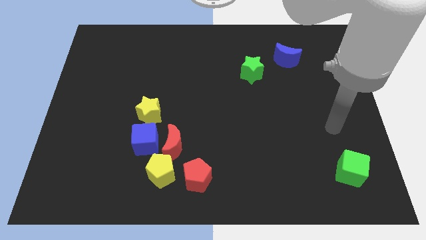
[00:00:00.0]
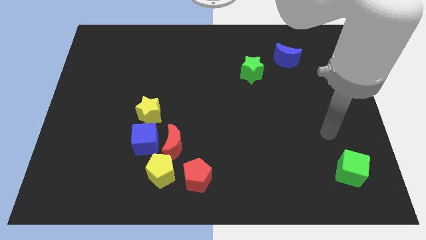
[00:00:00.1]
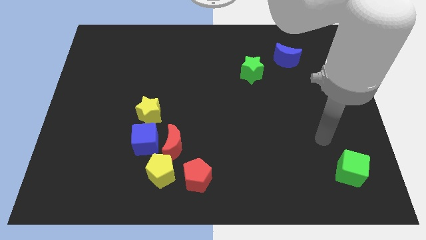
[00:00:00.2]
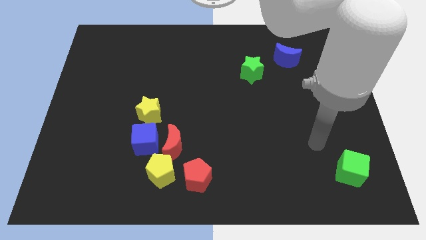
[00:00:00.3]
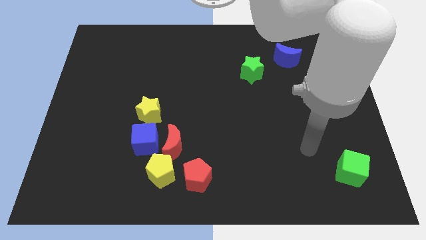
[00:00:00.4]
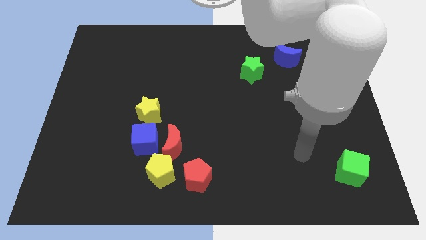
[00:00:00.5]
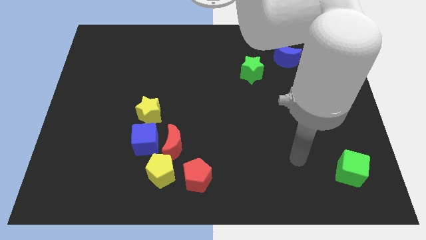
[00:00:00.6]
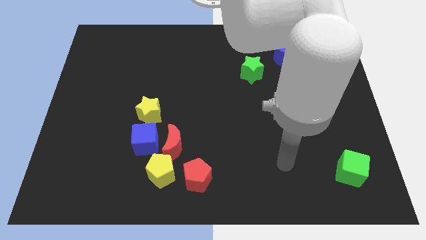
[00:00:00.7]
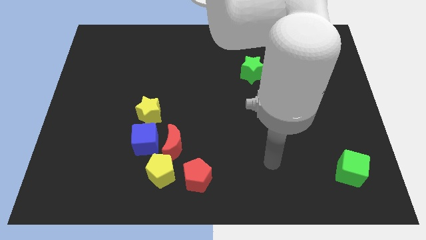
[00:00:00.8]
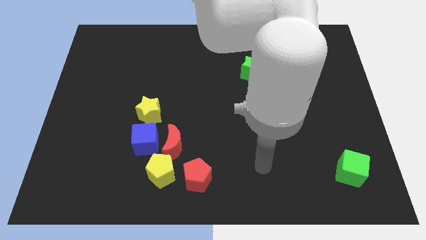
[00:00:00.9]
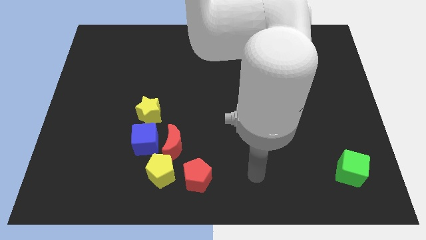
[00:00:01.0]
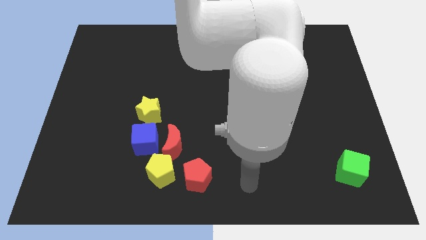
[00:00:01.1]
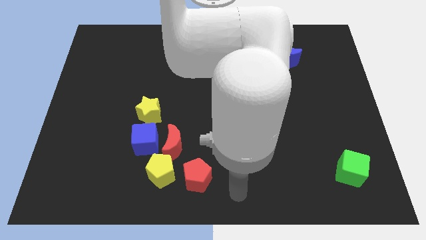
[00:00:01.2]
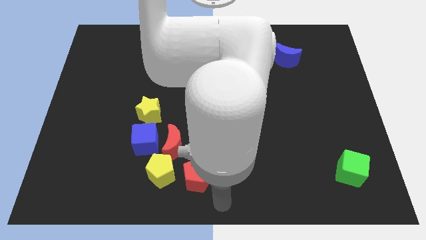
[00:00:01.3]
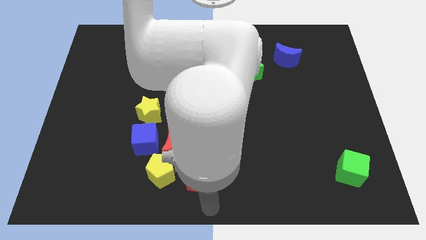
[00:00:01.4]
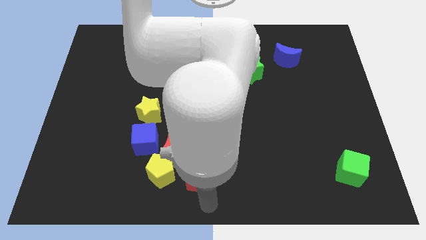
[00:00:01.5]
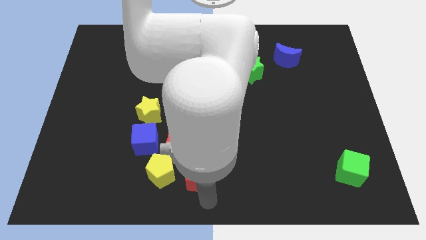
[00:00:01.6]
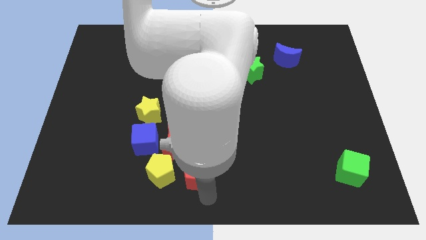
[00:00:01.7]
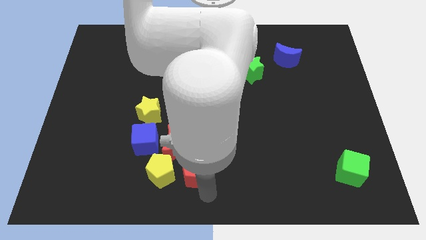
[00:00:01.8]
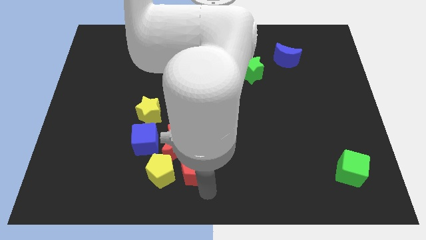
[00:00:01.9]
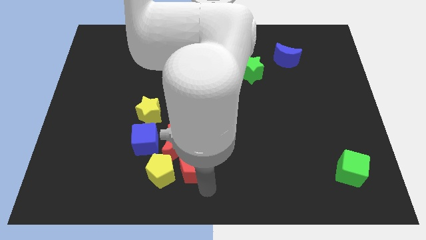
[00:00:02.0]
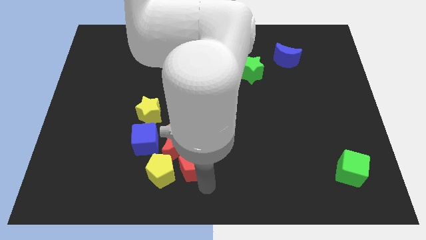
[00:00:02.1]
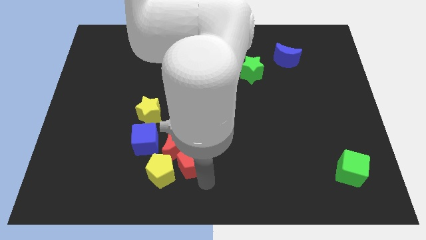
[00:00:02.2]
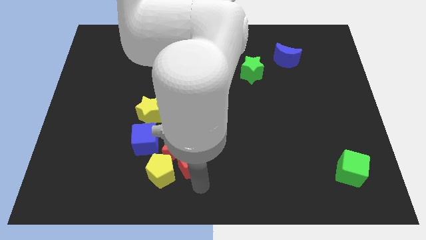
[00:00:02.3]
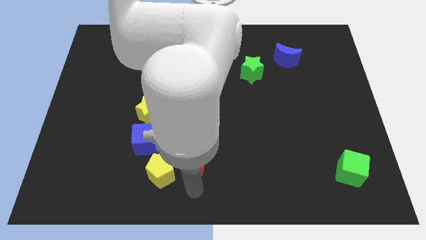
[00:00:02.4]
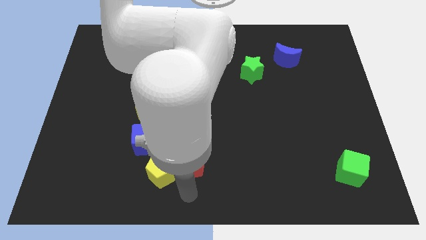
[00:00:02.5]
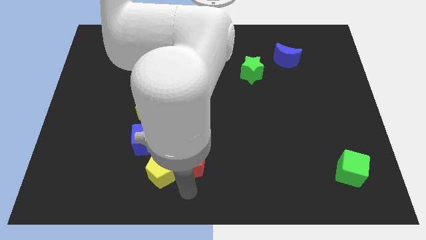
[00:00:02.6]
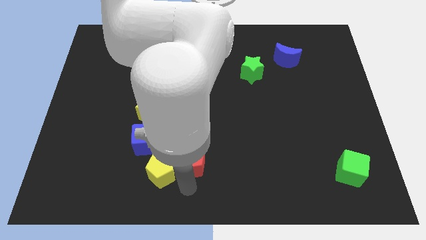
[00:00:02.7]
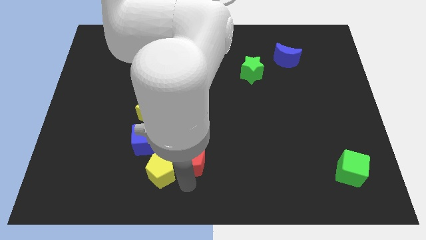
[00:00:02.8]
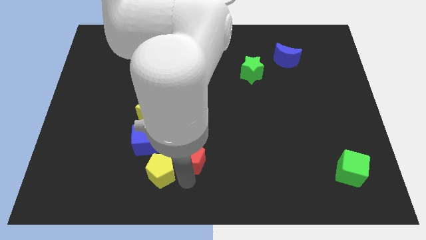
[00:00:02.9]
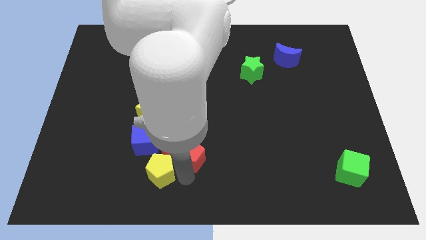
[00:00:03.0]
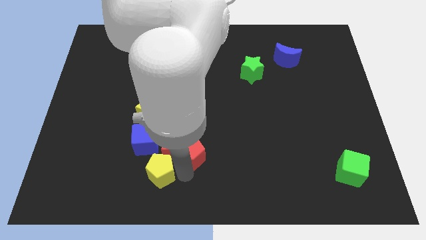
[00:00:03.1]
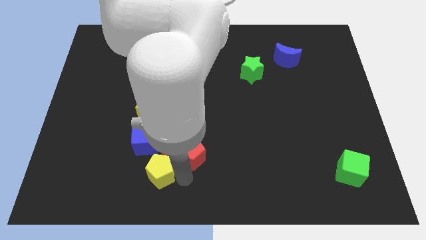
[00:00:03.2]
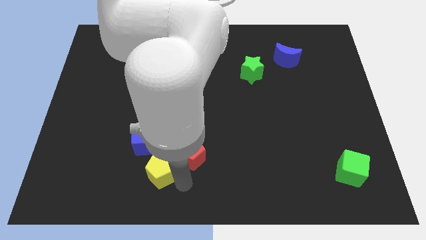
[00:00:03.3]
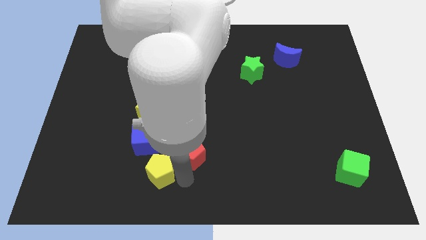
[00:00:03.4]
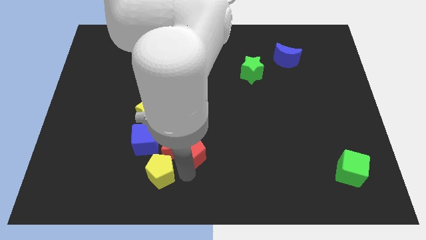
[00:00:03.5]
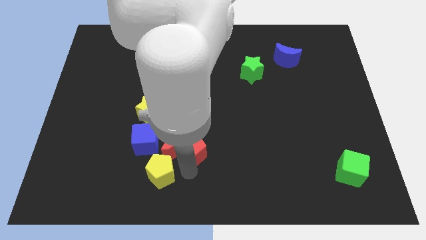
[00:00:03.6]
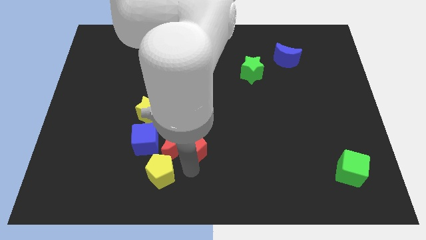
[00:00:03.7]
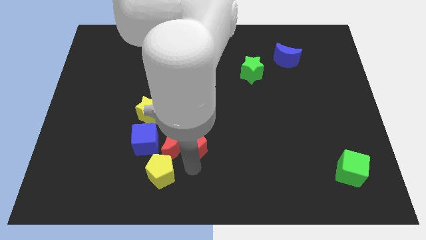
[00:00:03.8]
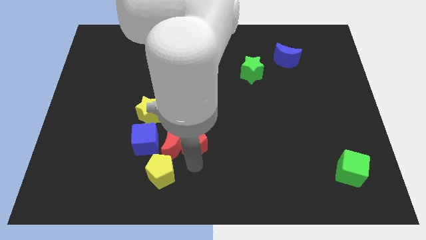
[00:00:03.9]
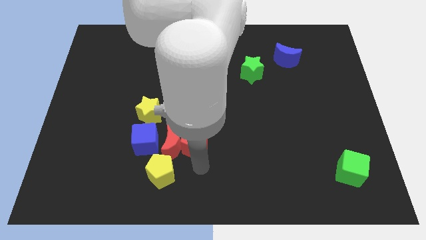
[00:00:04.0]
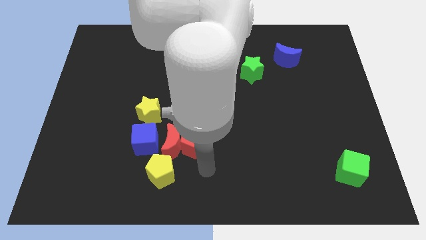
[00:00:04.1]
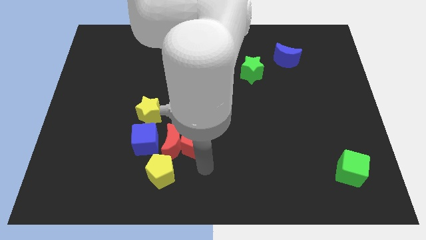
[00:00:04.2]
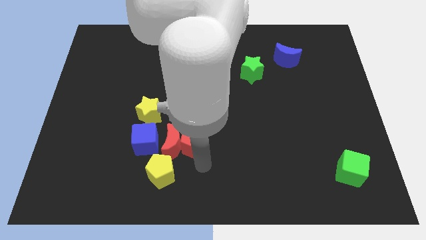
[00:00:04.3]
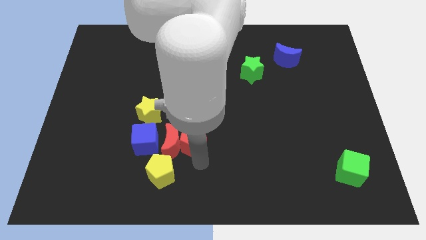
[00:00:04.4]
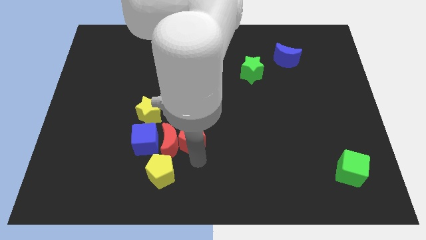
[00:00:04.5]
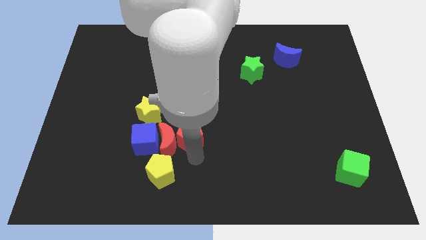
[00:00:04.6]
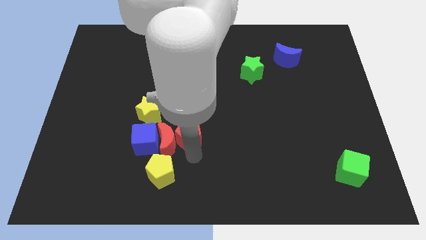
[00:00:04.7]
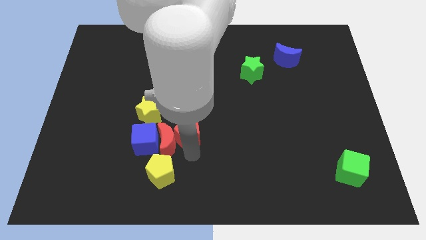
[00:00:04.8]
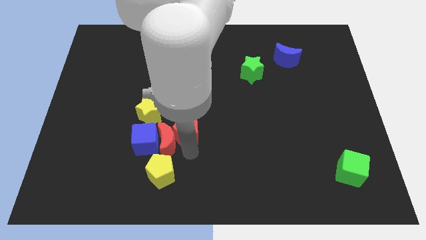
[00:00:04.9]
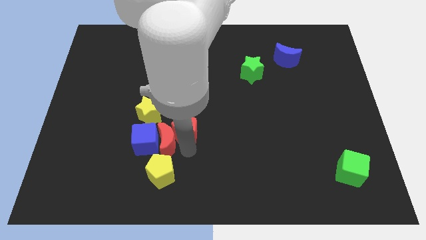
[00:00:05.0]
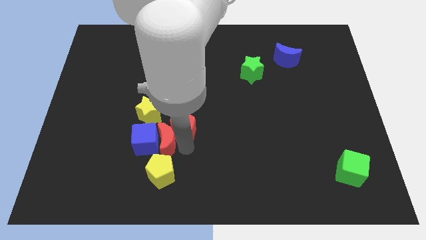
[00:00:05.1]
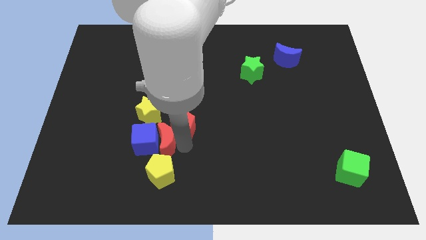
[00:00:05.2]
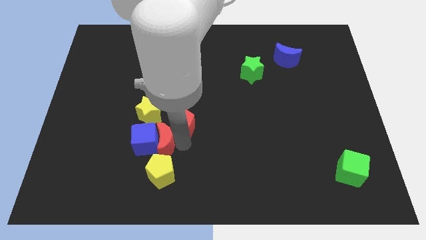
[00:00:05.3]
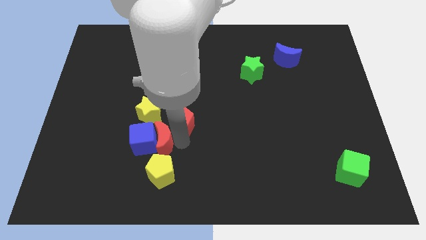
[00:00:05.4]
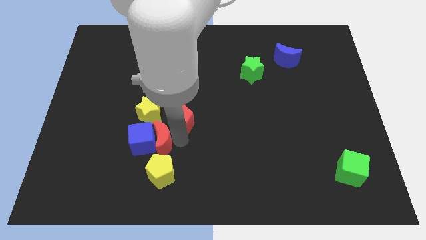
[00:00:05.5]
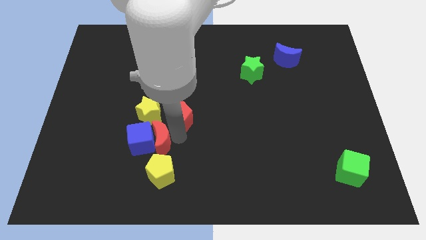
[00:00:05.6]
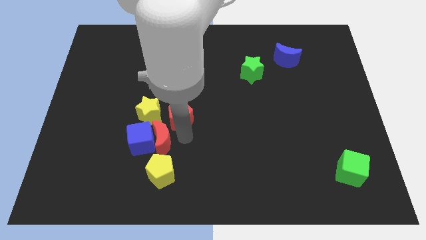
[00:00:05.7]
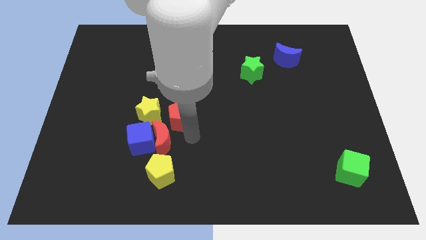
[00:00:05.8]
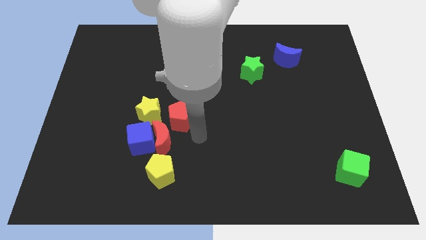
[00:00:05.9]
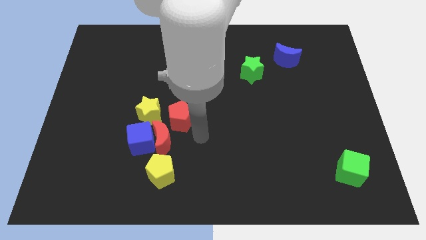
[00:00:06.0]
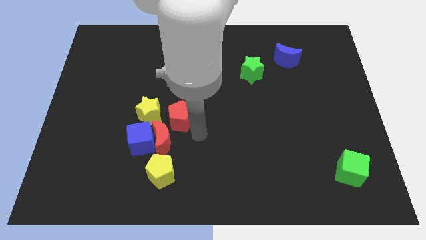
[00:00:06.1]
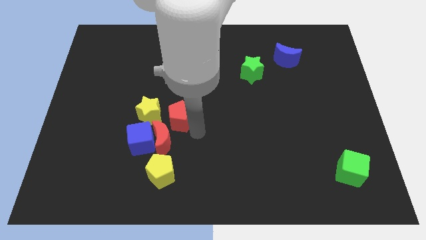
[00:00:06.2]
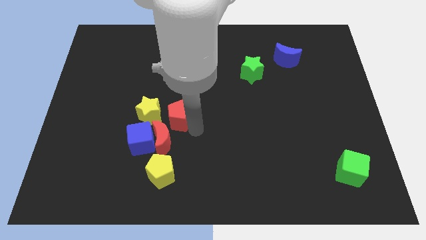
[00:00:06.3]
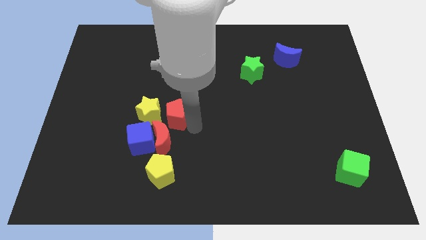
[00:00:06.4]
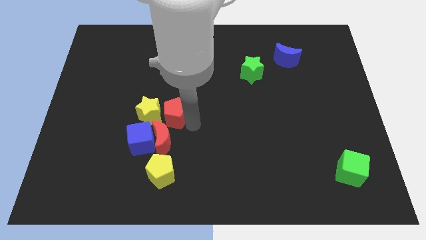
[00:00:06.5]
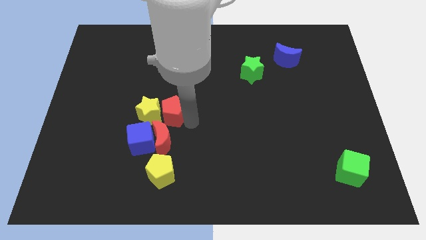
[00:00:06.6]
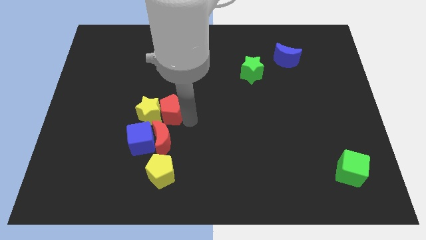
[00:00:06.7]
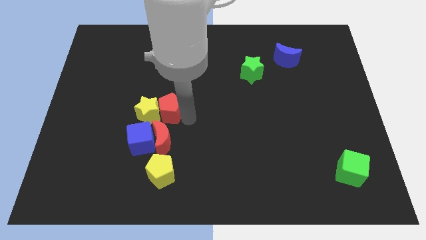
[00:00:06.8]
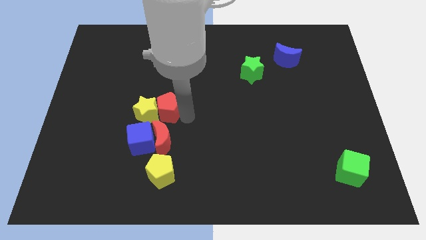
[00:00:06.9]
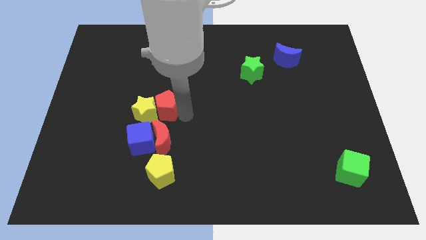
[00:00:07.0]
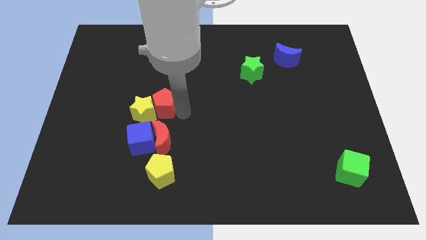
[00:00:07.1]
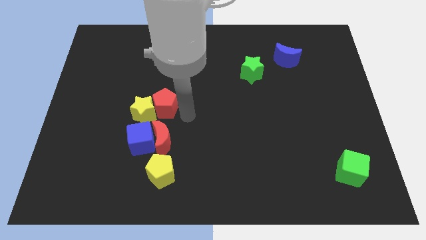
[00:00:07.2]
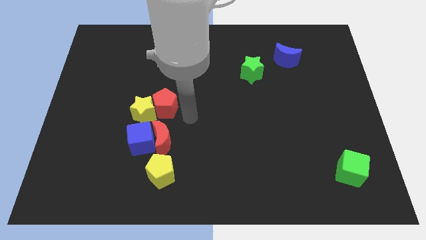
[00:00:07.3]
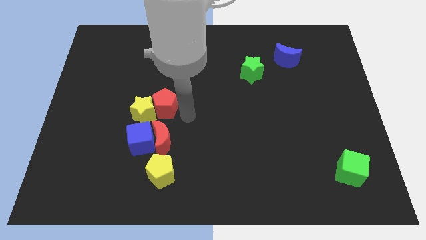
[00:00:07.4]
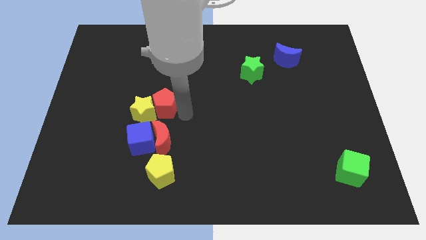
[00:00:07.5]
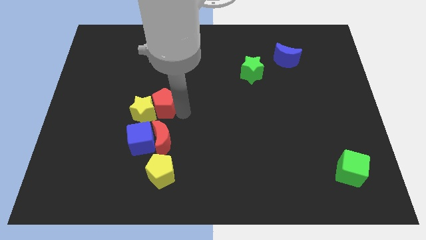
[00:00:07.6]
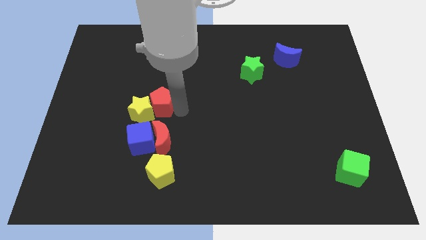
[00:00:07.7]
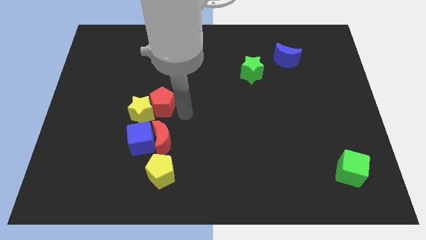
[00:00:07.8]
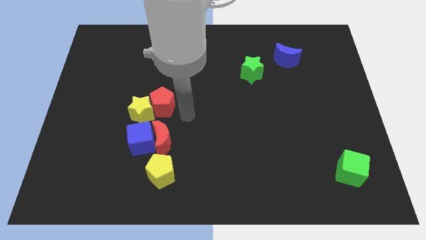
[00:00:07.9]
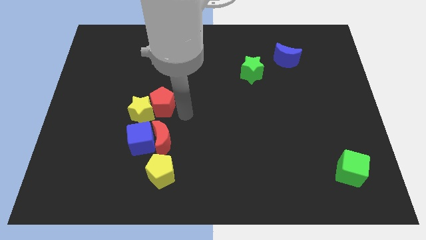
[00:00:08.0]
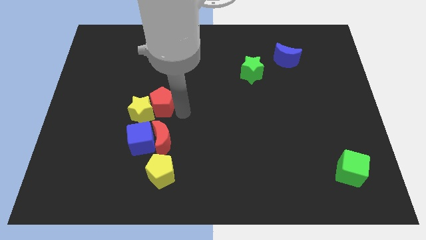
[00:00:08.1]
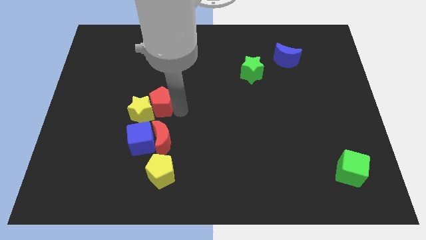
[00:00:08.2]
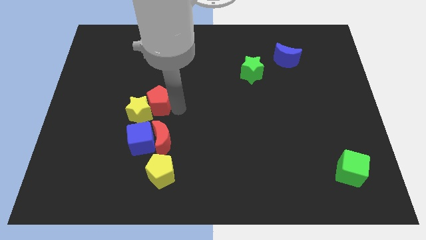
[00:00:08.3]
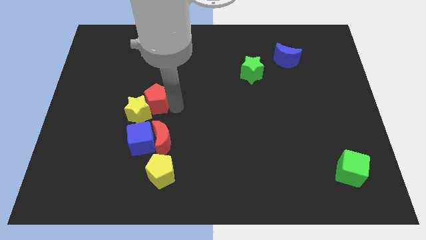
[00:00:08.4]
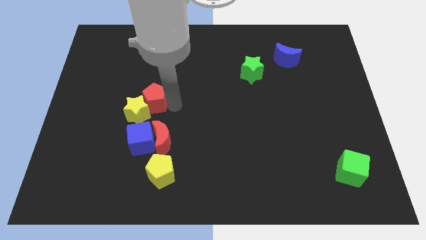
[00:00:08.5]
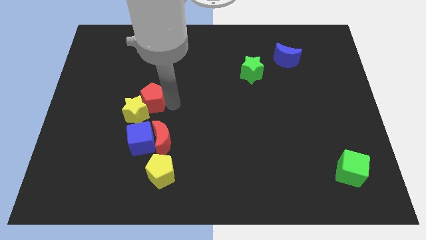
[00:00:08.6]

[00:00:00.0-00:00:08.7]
move the red pentagon upwards and left diagonally
